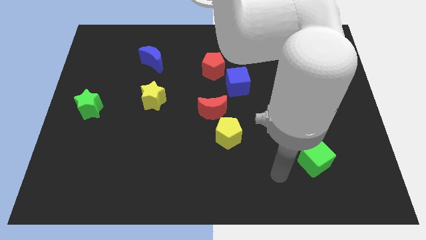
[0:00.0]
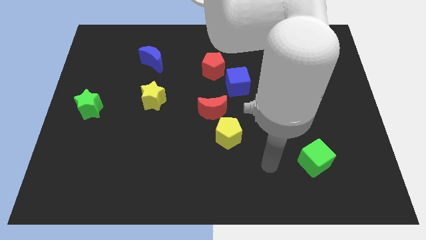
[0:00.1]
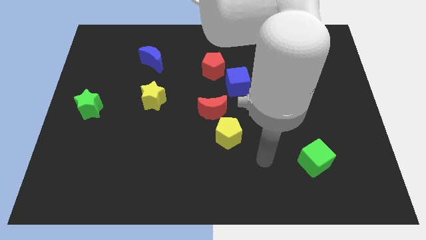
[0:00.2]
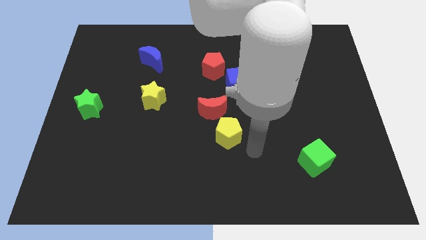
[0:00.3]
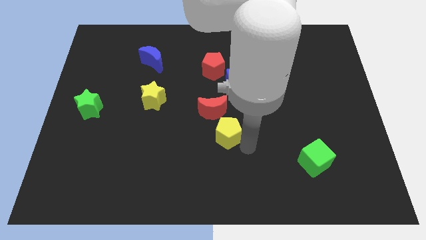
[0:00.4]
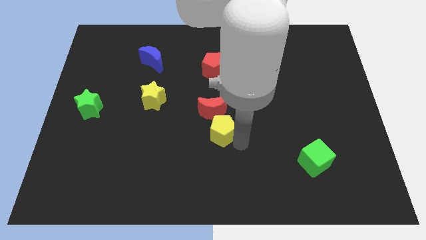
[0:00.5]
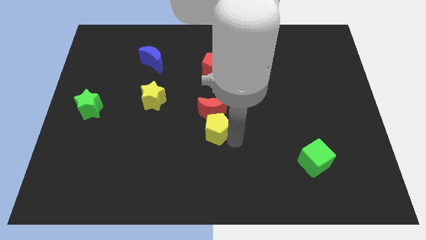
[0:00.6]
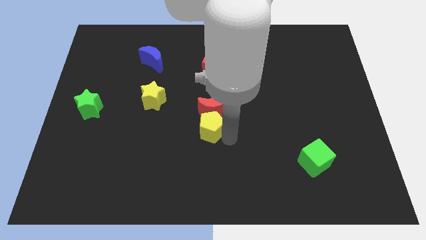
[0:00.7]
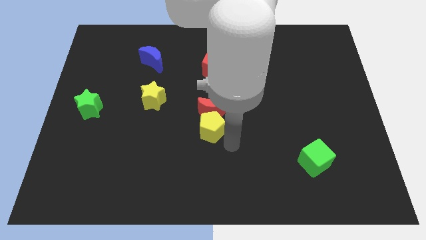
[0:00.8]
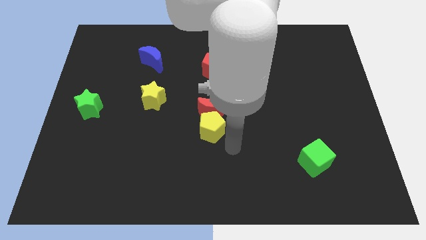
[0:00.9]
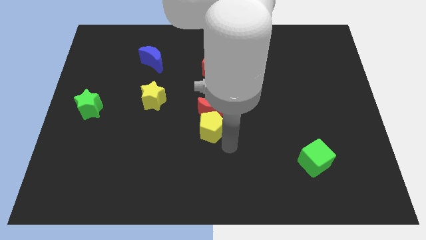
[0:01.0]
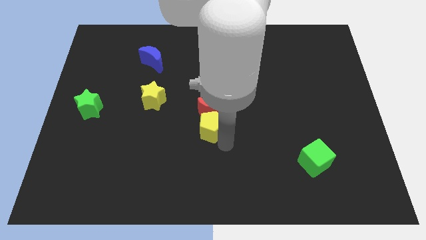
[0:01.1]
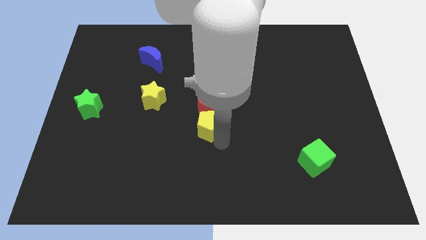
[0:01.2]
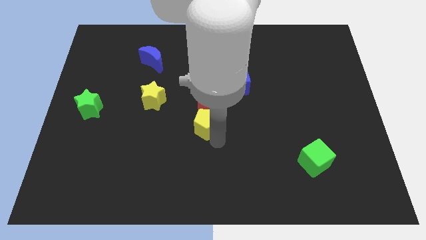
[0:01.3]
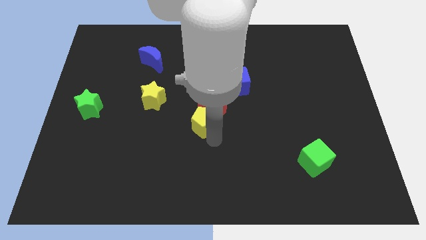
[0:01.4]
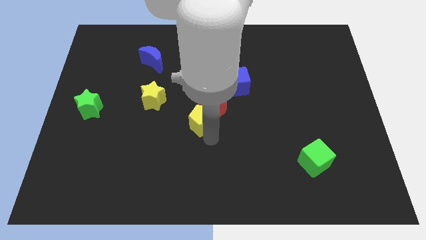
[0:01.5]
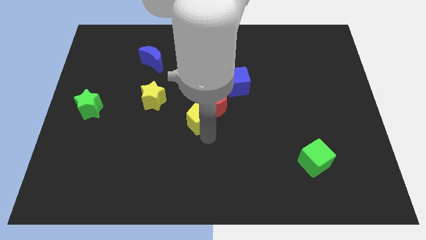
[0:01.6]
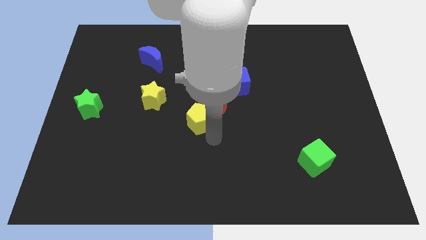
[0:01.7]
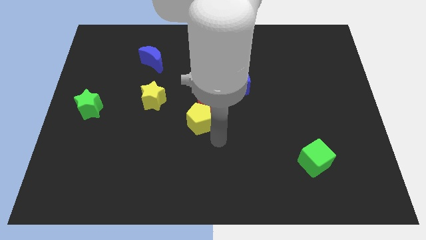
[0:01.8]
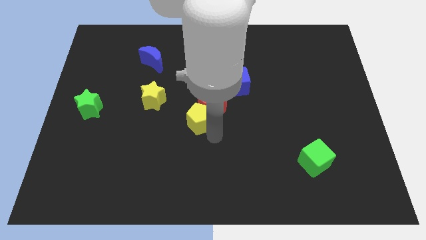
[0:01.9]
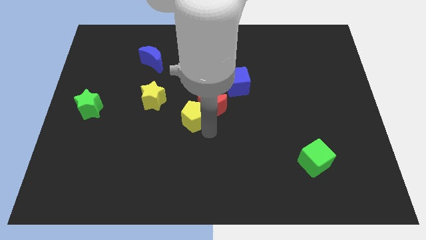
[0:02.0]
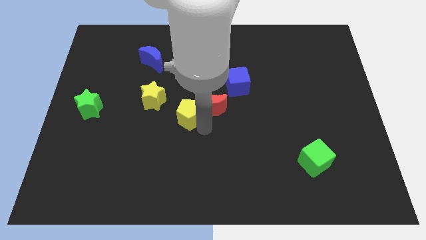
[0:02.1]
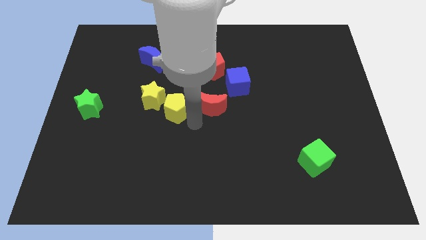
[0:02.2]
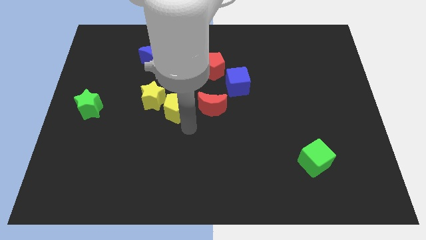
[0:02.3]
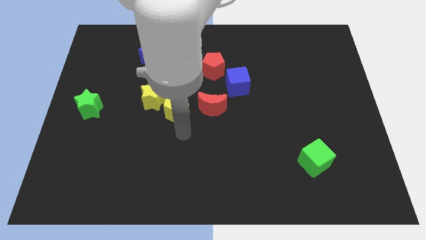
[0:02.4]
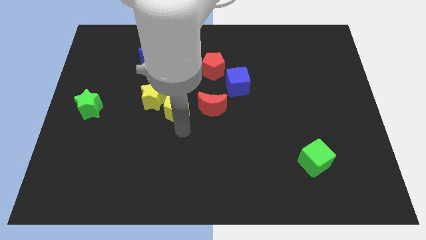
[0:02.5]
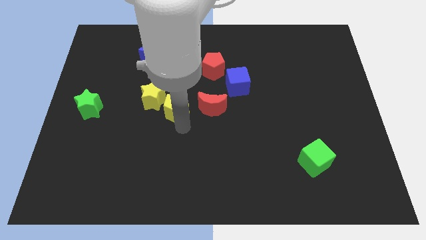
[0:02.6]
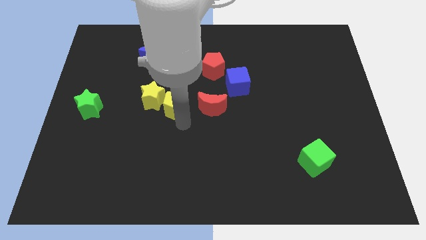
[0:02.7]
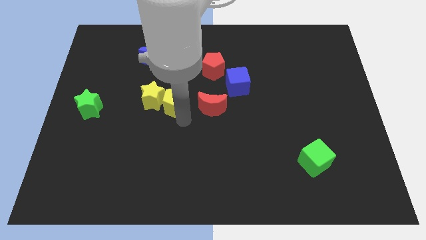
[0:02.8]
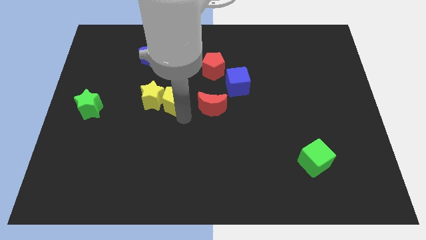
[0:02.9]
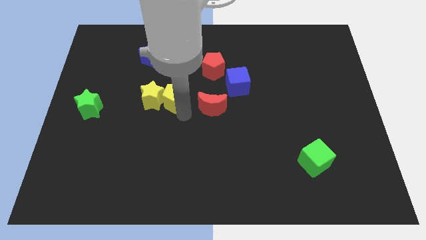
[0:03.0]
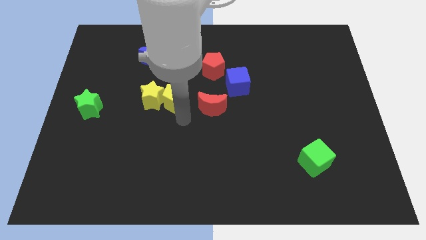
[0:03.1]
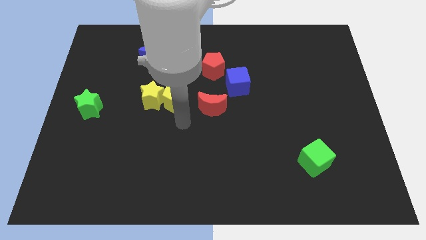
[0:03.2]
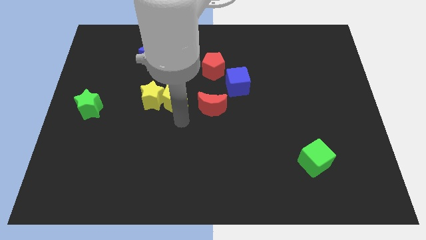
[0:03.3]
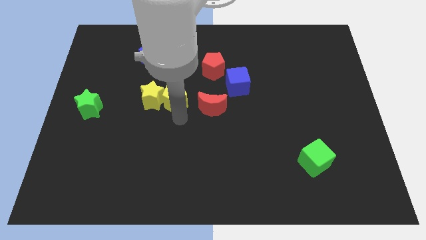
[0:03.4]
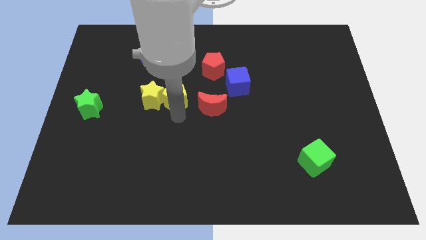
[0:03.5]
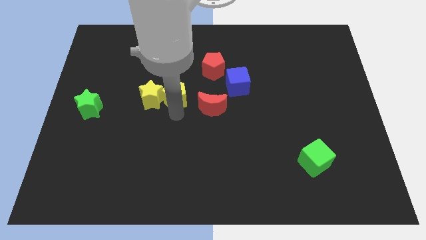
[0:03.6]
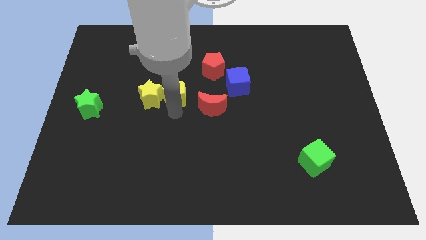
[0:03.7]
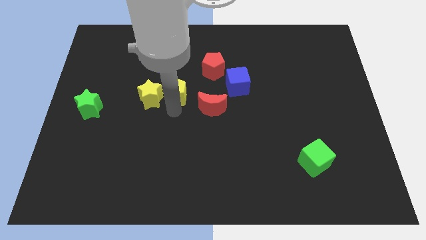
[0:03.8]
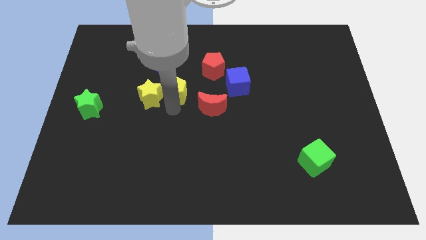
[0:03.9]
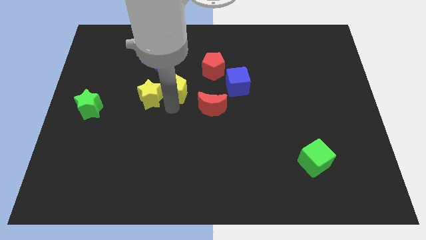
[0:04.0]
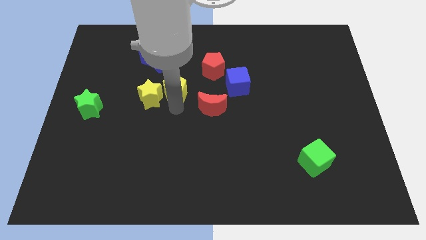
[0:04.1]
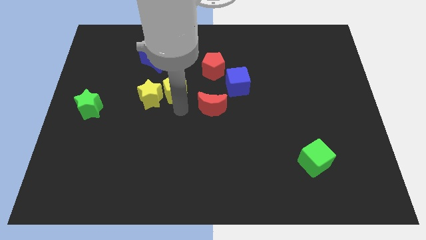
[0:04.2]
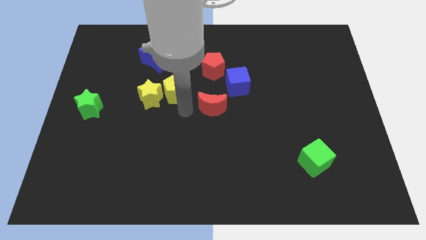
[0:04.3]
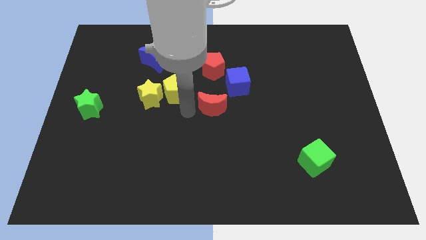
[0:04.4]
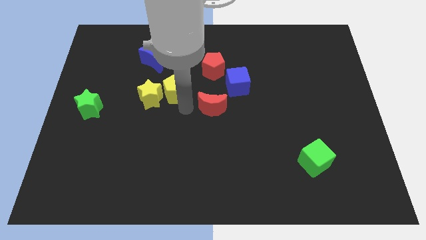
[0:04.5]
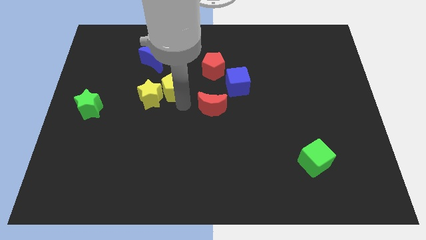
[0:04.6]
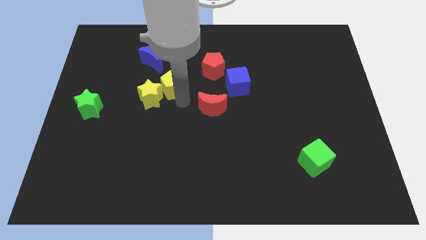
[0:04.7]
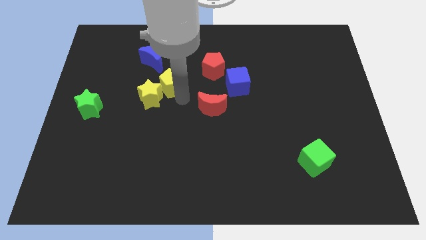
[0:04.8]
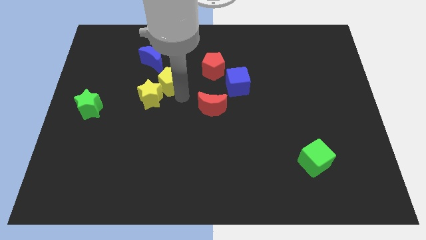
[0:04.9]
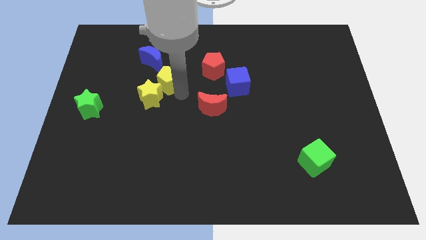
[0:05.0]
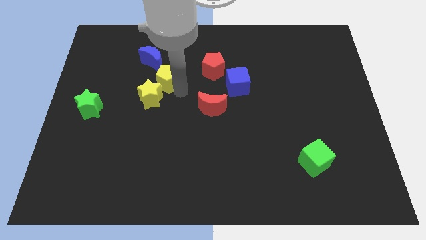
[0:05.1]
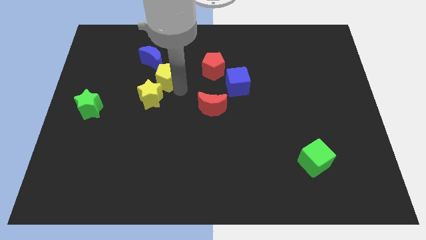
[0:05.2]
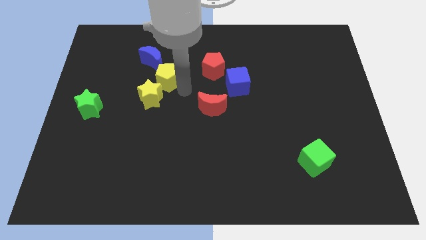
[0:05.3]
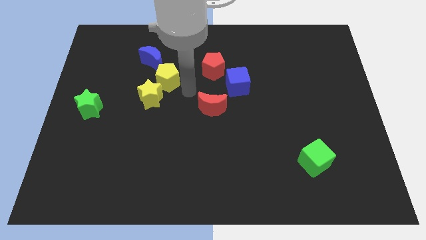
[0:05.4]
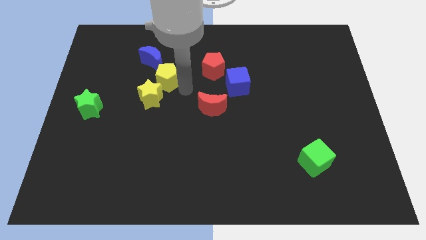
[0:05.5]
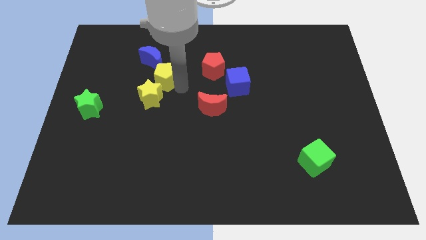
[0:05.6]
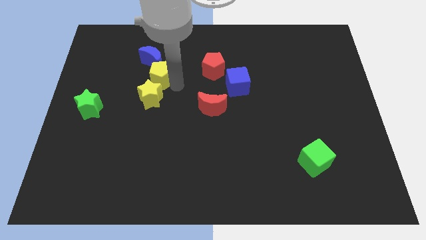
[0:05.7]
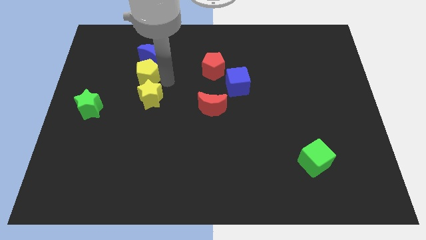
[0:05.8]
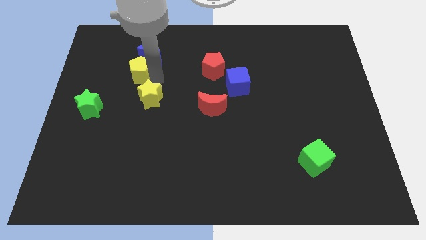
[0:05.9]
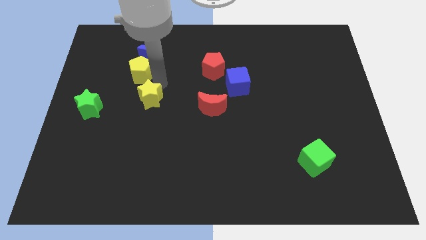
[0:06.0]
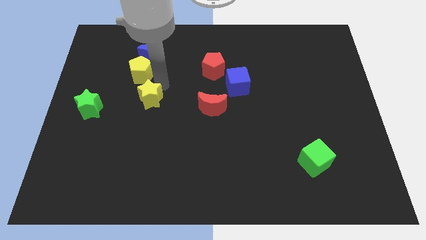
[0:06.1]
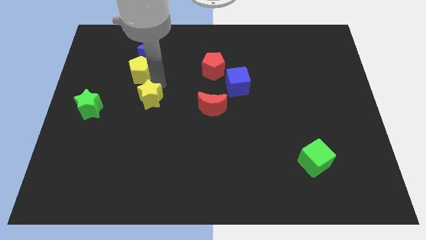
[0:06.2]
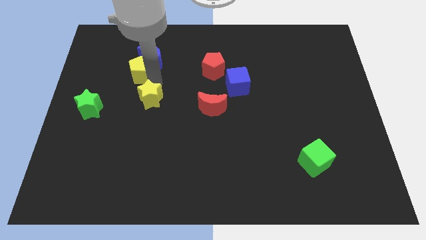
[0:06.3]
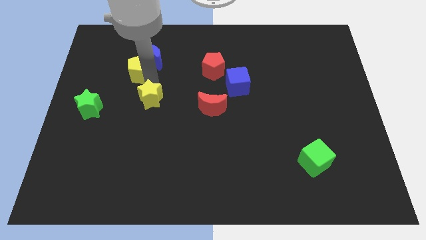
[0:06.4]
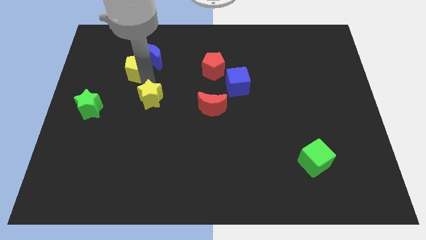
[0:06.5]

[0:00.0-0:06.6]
move the yellow pentagon just left of the blue moon

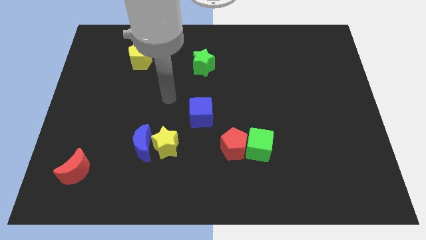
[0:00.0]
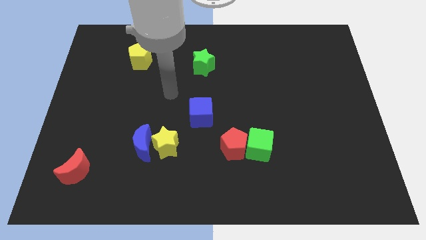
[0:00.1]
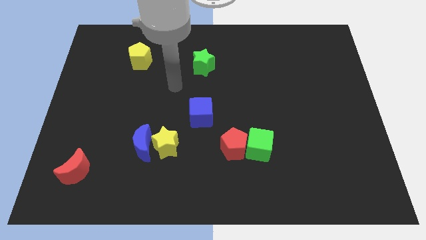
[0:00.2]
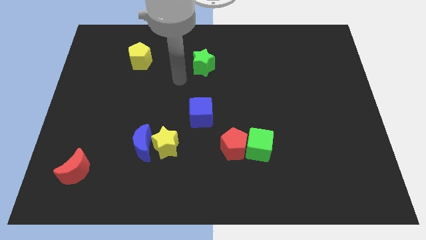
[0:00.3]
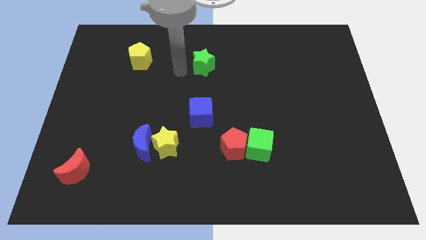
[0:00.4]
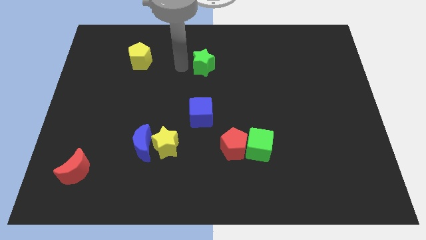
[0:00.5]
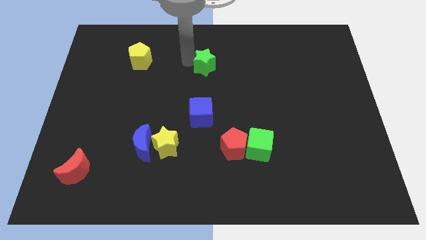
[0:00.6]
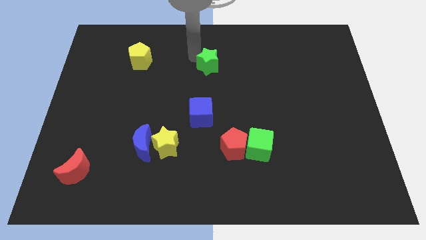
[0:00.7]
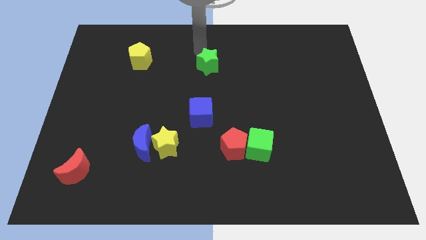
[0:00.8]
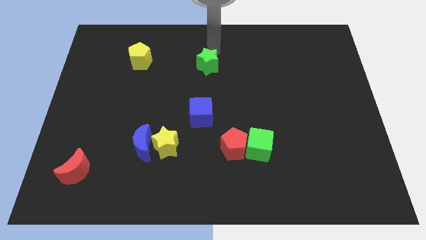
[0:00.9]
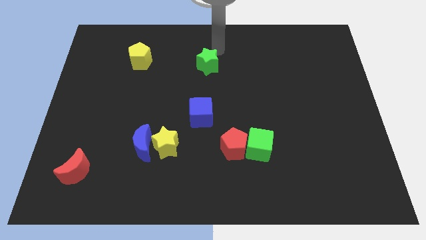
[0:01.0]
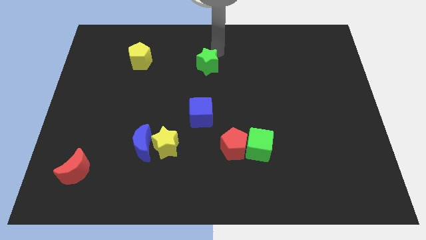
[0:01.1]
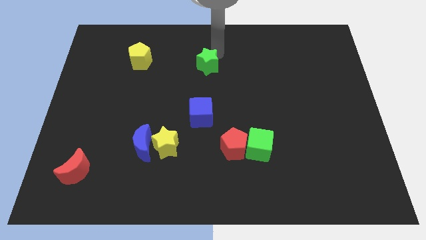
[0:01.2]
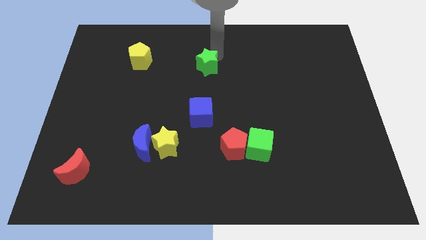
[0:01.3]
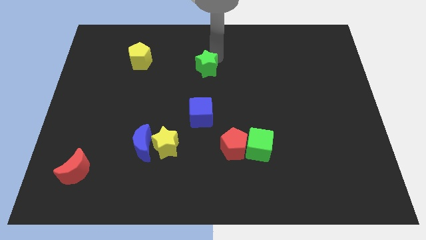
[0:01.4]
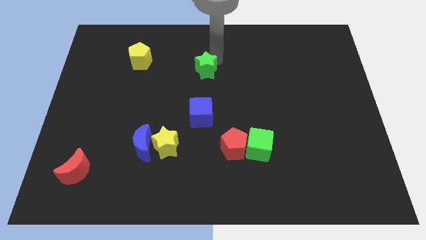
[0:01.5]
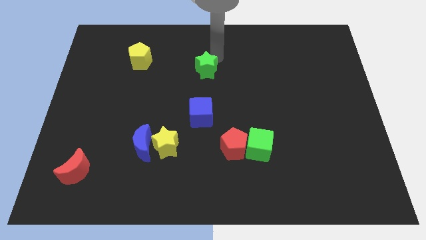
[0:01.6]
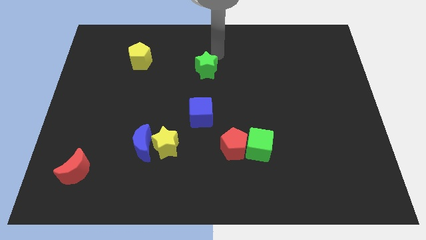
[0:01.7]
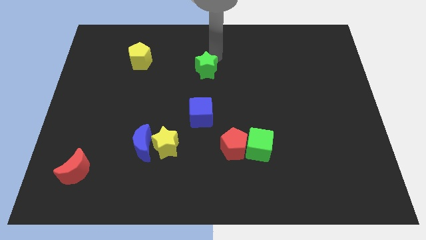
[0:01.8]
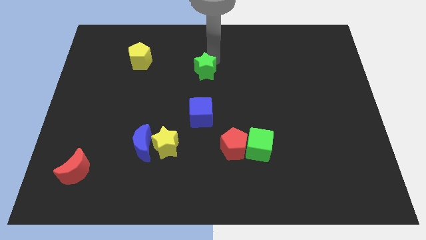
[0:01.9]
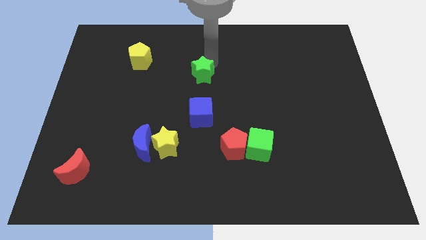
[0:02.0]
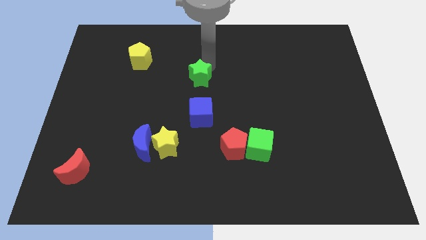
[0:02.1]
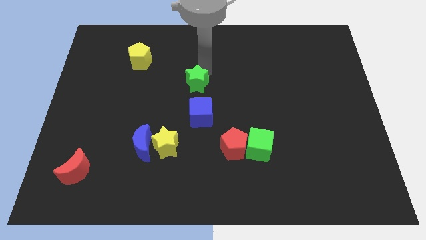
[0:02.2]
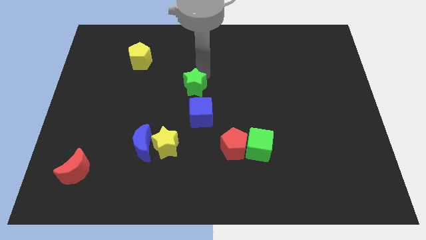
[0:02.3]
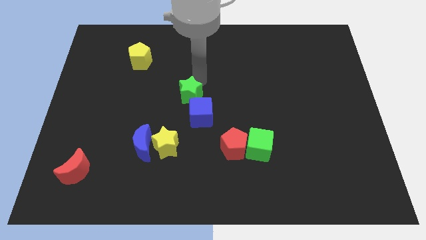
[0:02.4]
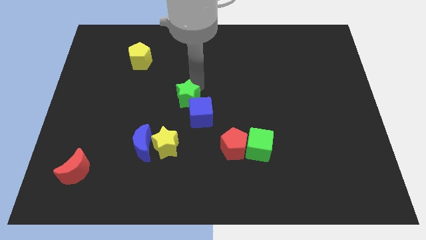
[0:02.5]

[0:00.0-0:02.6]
move the green star to the top of the yellow star
